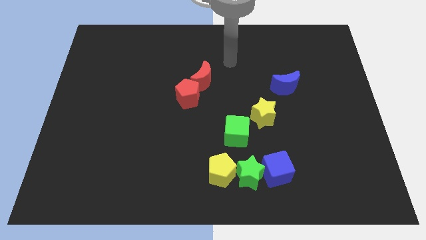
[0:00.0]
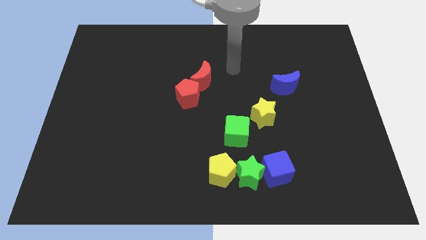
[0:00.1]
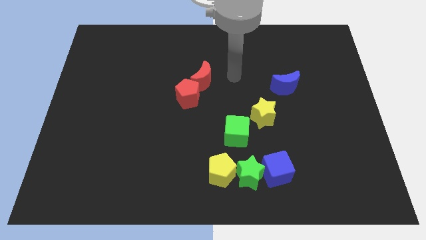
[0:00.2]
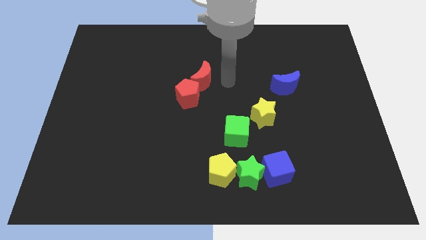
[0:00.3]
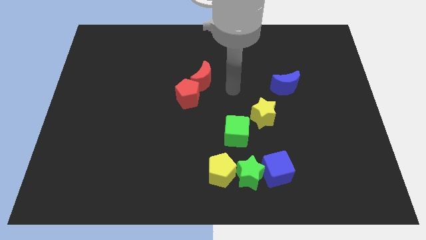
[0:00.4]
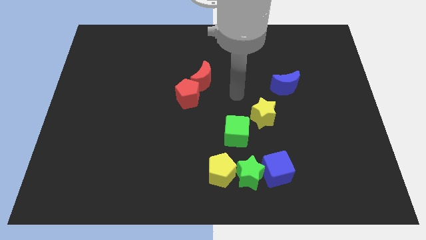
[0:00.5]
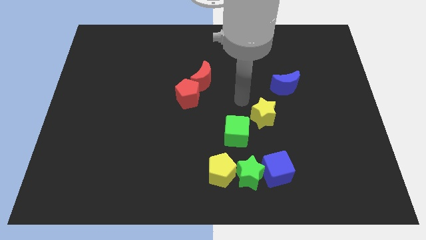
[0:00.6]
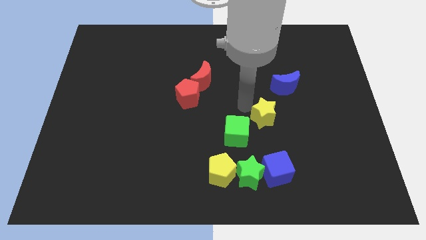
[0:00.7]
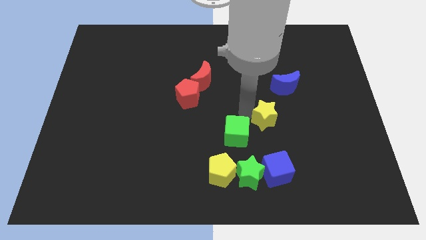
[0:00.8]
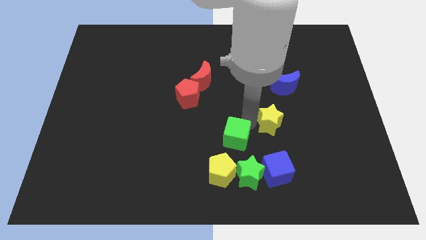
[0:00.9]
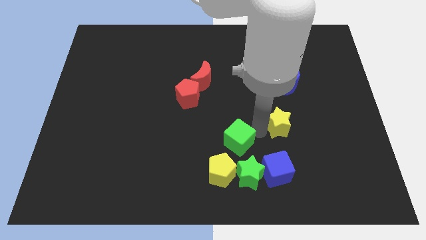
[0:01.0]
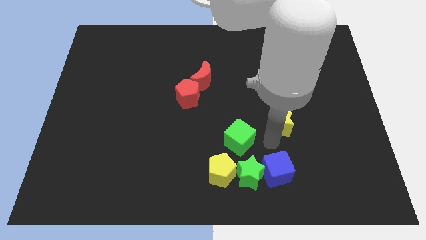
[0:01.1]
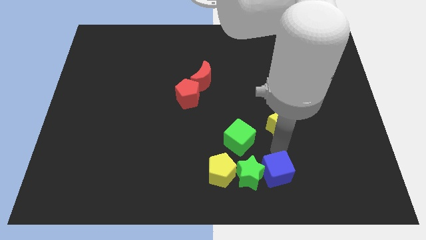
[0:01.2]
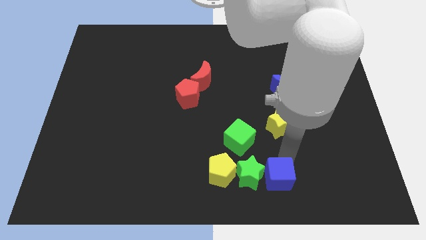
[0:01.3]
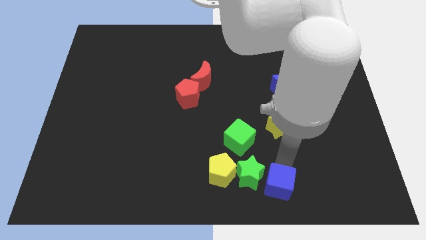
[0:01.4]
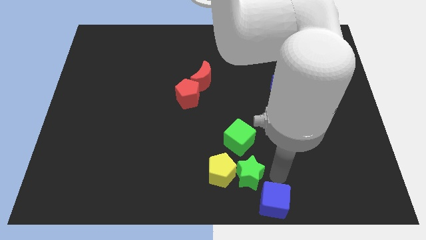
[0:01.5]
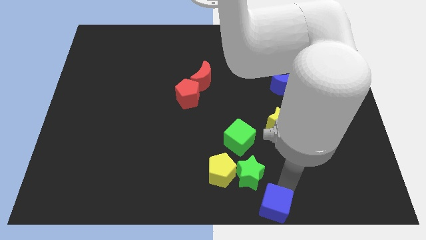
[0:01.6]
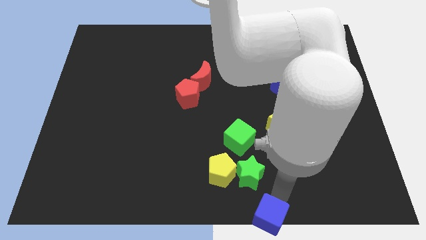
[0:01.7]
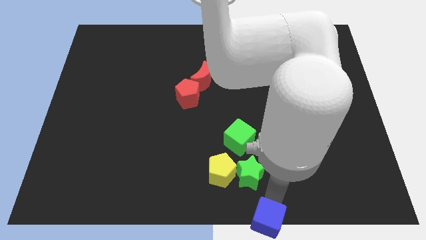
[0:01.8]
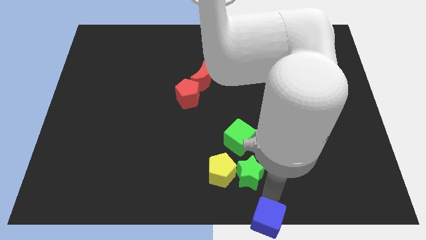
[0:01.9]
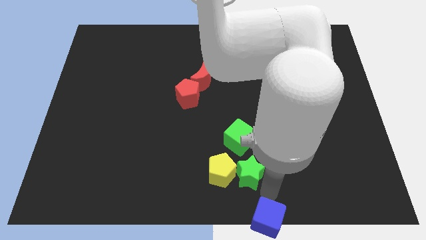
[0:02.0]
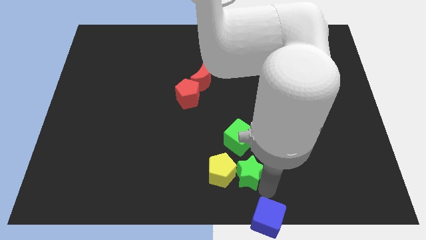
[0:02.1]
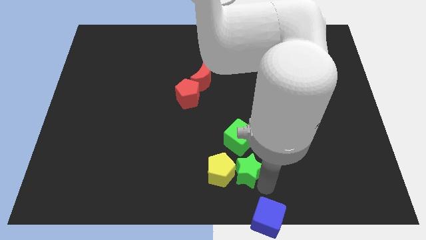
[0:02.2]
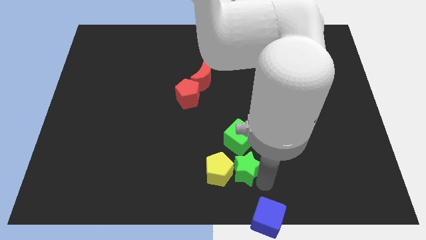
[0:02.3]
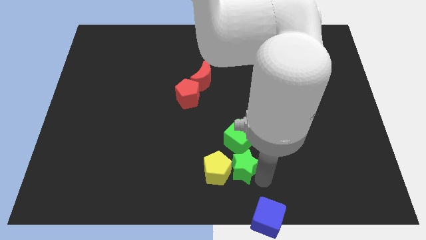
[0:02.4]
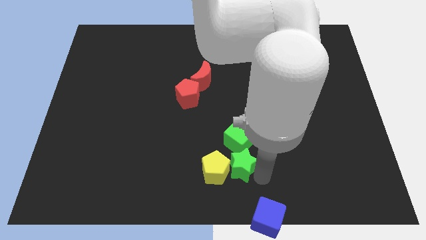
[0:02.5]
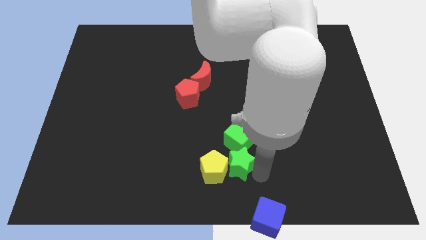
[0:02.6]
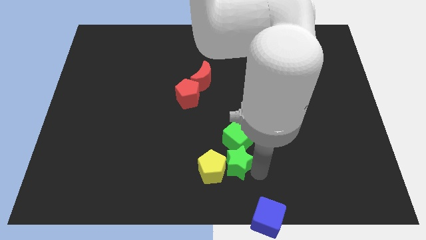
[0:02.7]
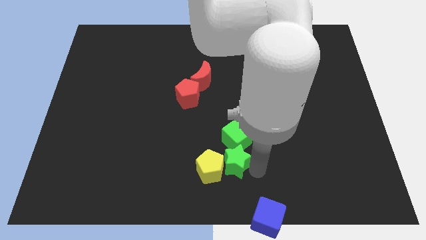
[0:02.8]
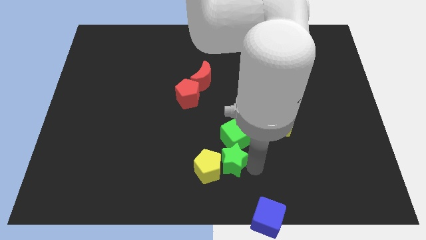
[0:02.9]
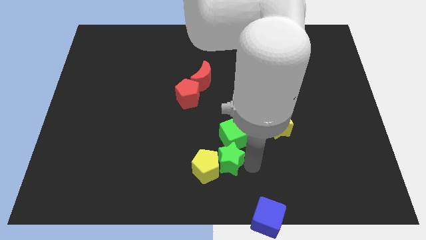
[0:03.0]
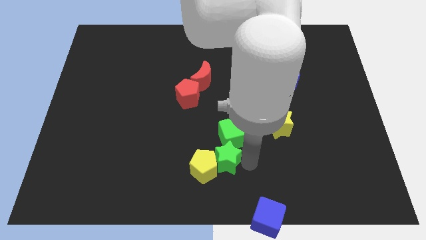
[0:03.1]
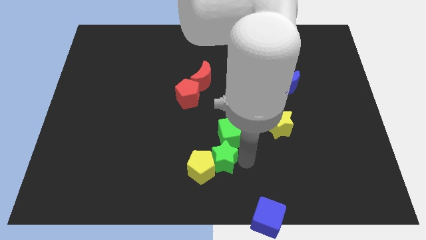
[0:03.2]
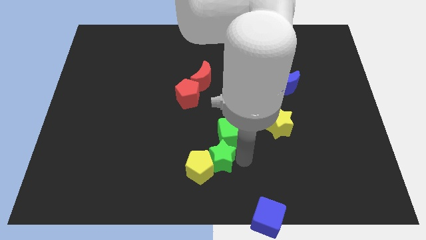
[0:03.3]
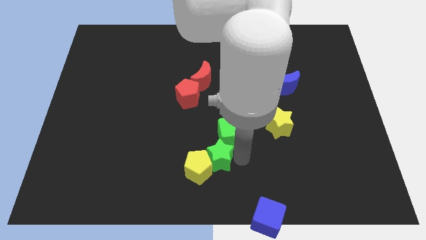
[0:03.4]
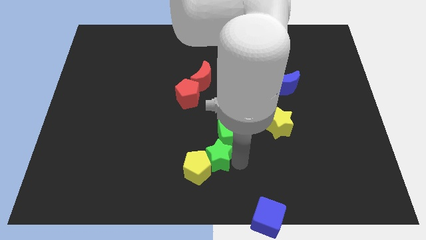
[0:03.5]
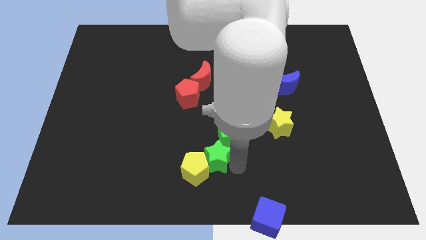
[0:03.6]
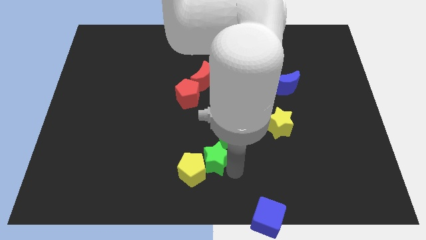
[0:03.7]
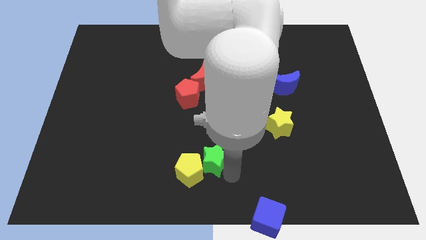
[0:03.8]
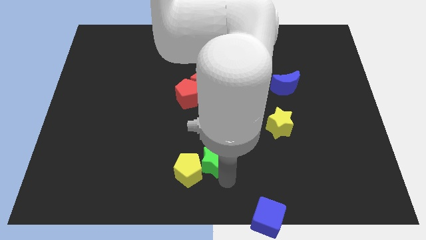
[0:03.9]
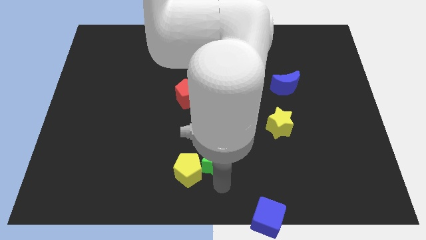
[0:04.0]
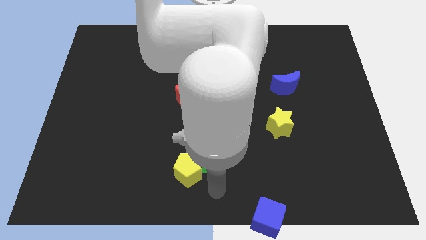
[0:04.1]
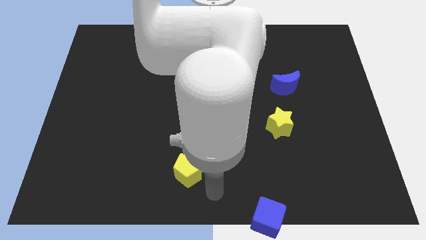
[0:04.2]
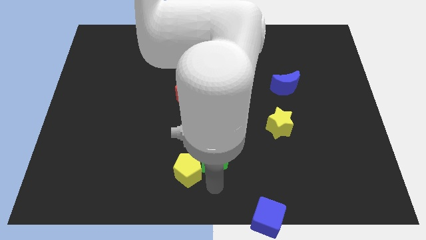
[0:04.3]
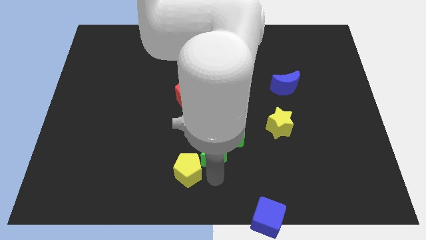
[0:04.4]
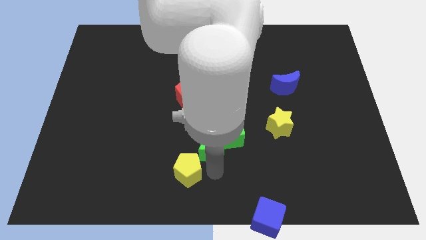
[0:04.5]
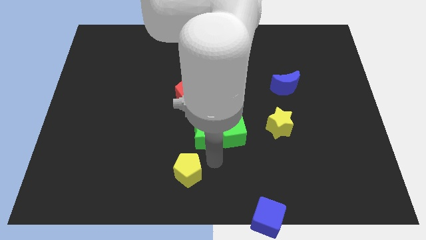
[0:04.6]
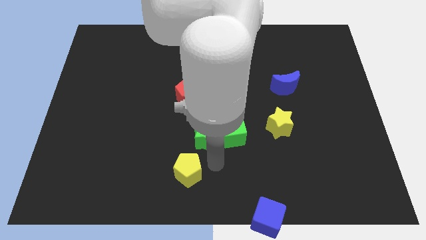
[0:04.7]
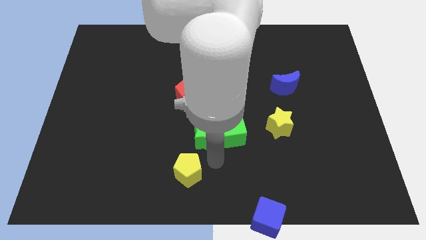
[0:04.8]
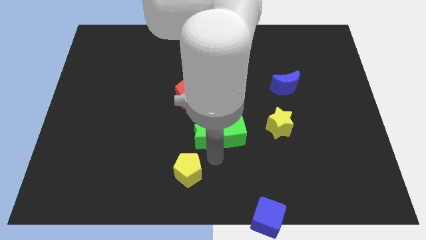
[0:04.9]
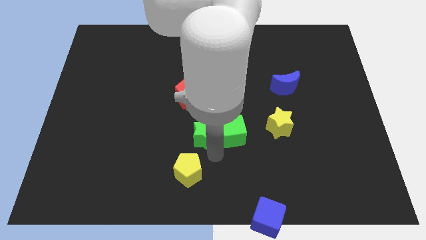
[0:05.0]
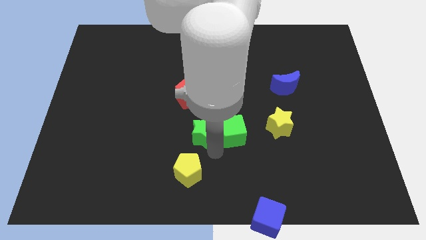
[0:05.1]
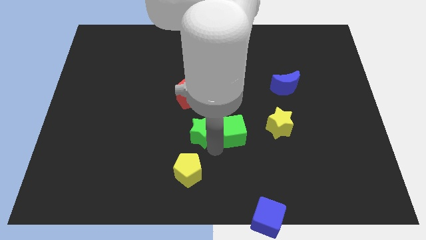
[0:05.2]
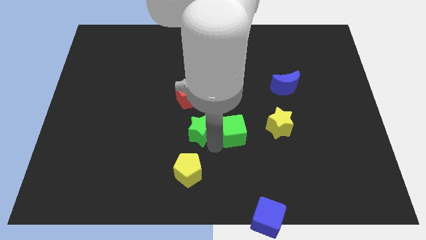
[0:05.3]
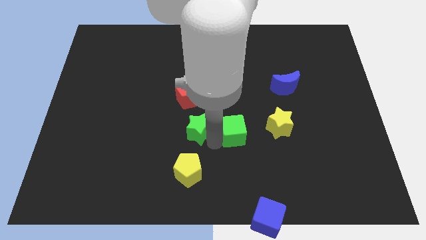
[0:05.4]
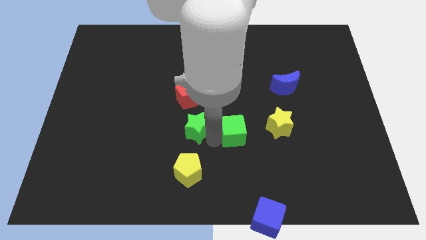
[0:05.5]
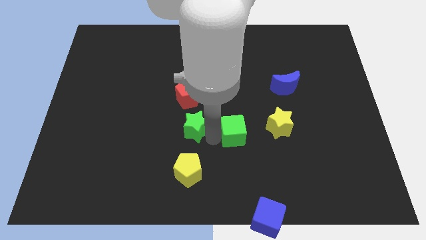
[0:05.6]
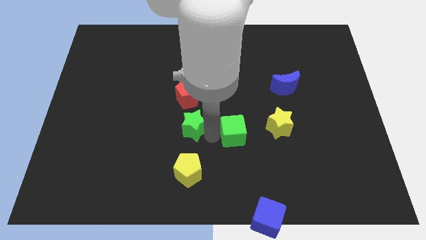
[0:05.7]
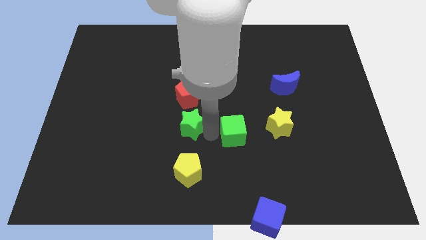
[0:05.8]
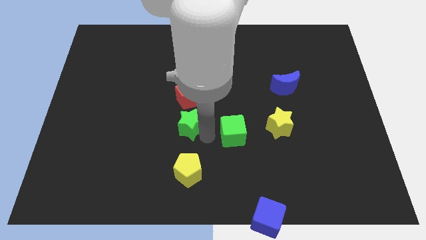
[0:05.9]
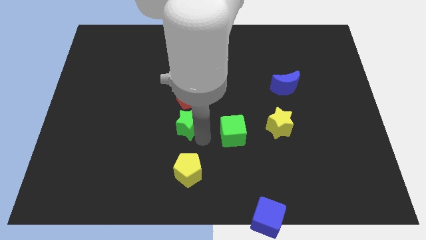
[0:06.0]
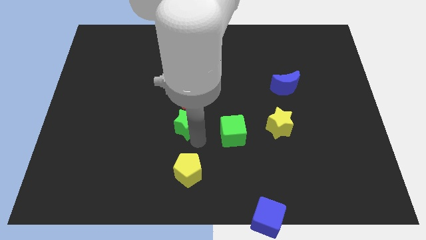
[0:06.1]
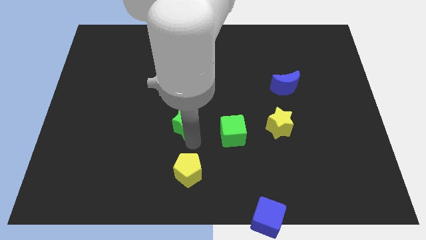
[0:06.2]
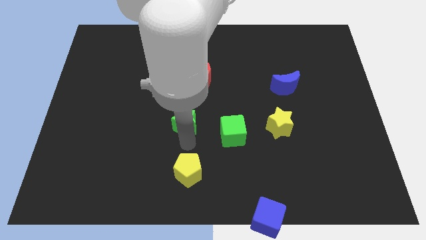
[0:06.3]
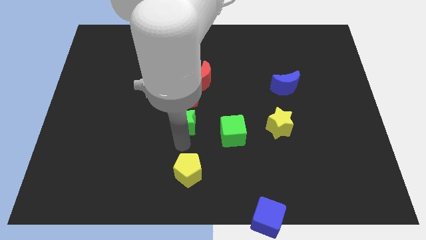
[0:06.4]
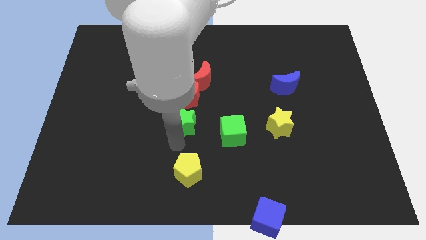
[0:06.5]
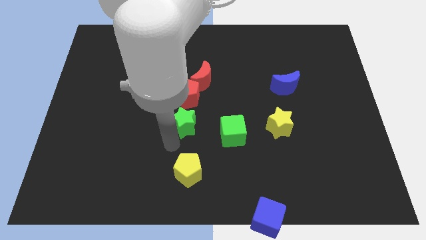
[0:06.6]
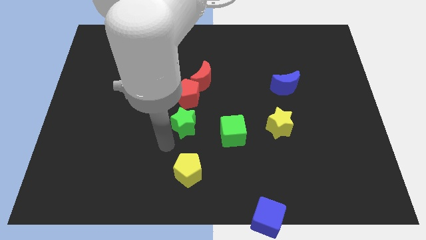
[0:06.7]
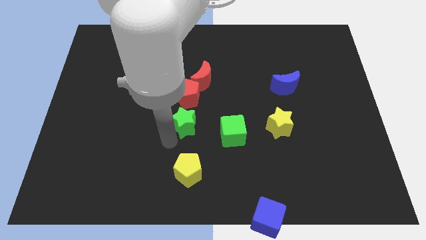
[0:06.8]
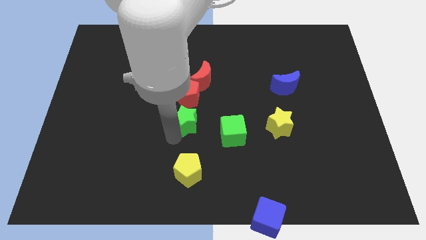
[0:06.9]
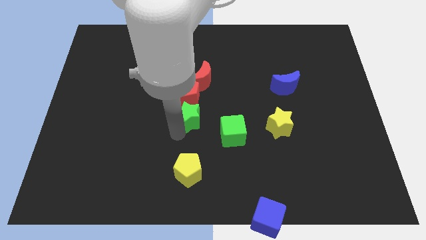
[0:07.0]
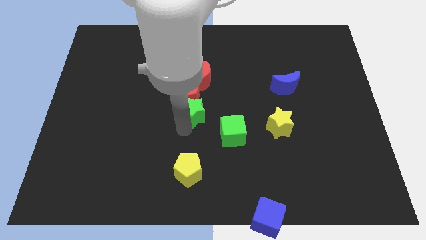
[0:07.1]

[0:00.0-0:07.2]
move the green star close to the red pentagon
